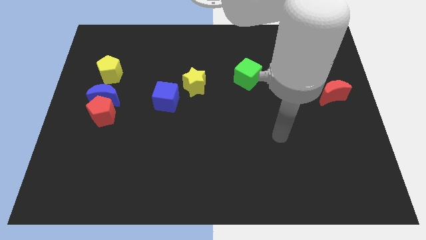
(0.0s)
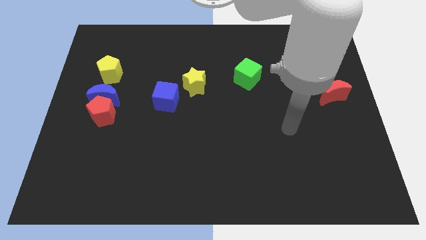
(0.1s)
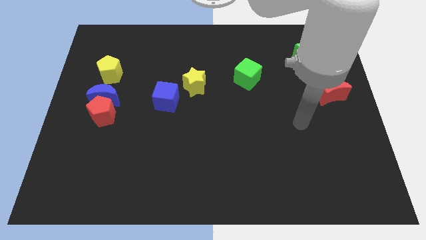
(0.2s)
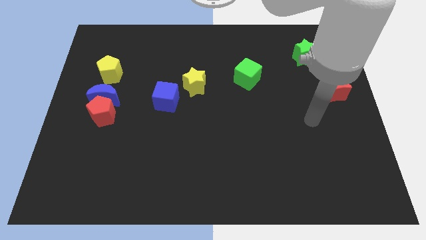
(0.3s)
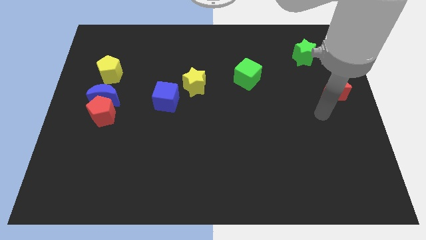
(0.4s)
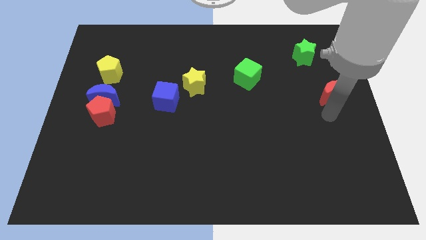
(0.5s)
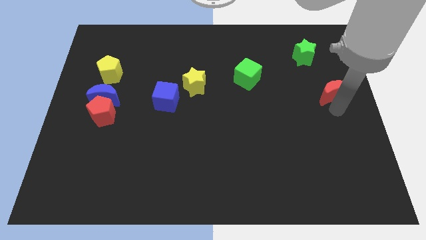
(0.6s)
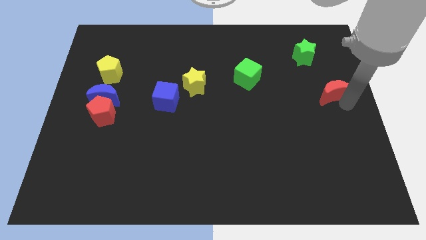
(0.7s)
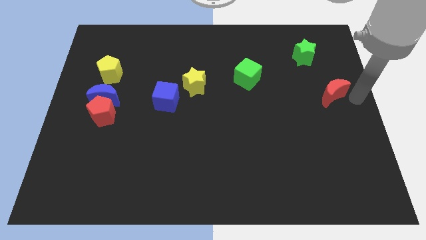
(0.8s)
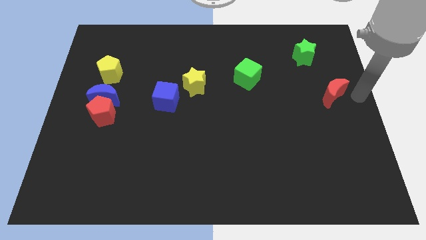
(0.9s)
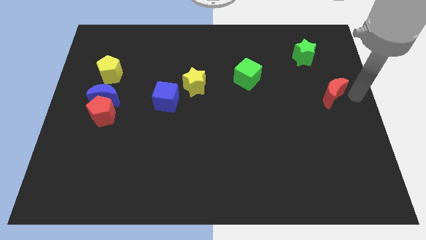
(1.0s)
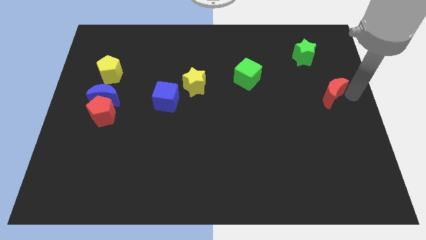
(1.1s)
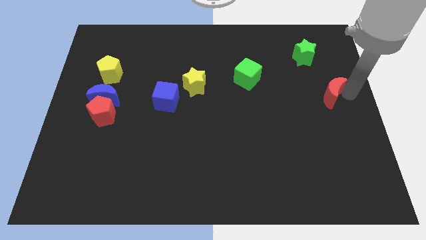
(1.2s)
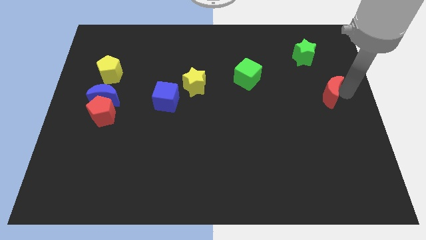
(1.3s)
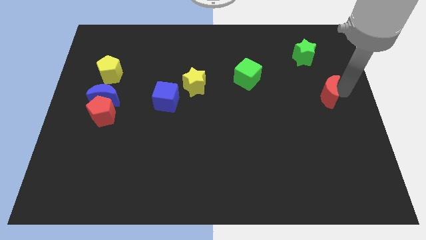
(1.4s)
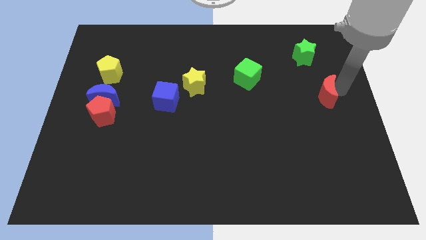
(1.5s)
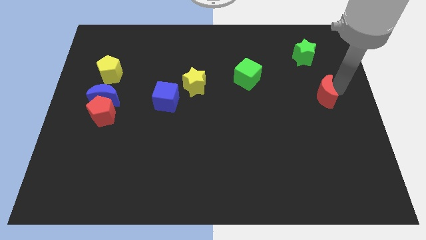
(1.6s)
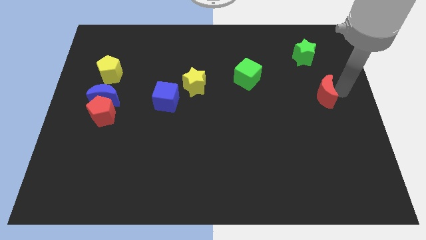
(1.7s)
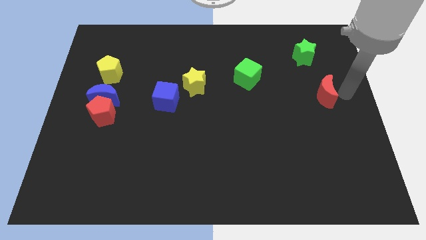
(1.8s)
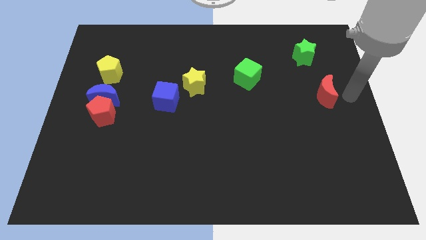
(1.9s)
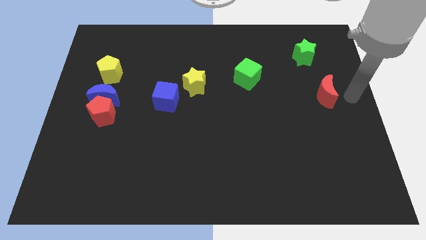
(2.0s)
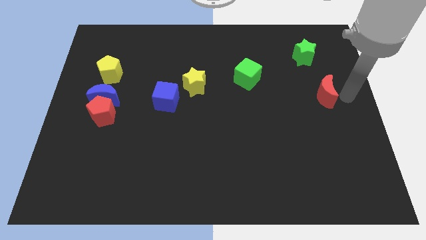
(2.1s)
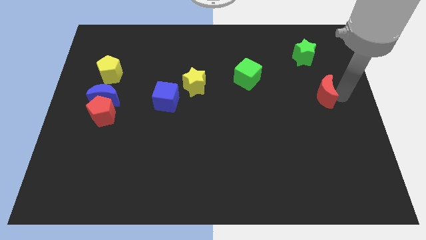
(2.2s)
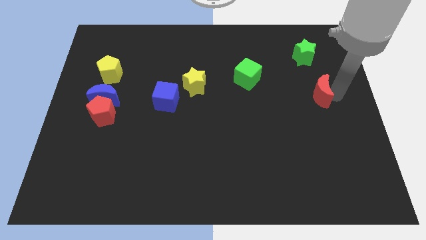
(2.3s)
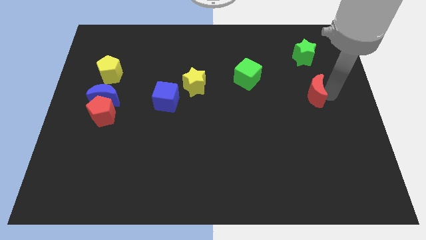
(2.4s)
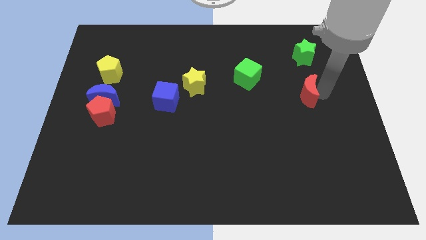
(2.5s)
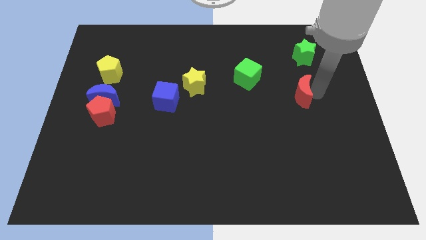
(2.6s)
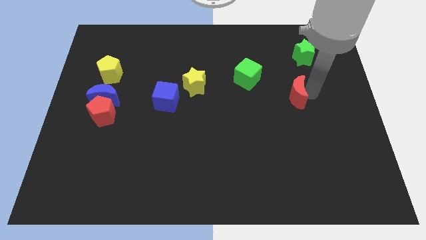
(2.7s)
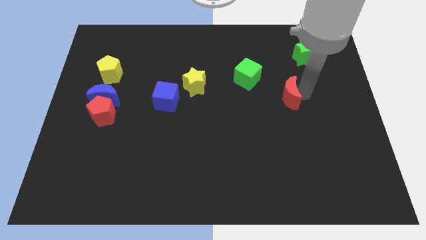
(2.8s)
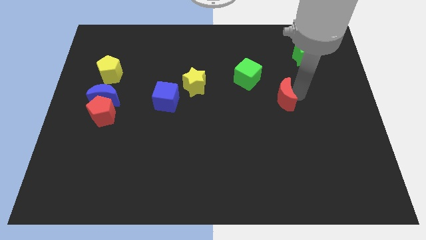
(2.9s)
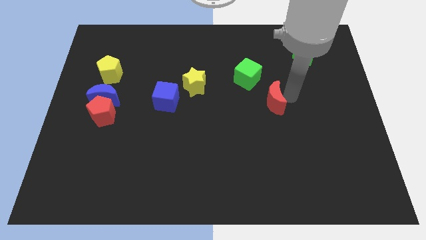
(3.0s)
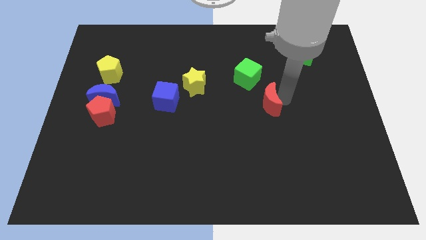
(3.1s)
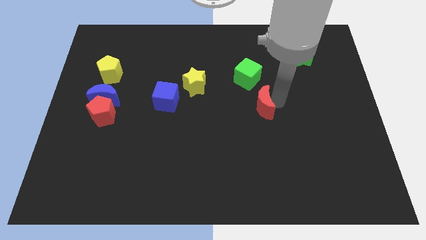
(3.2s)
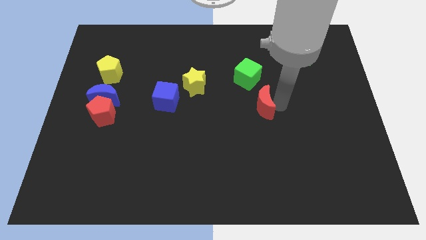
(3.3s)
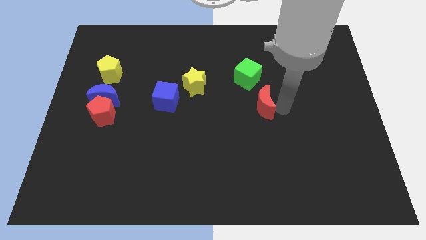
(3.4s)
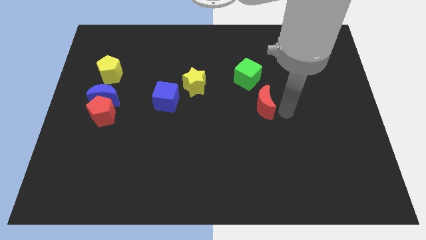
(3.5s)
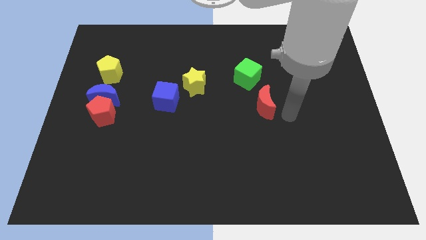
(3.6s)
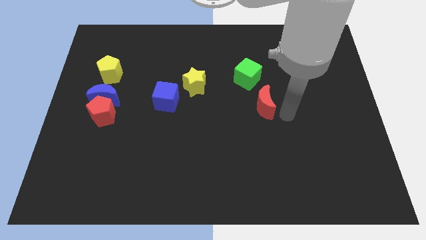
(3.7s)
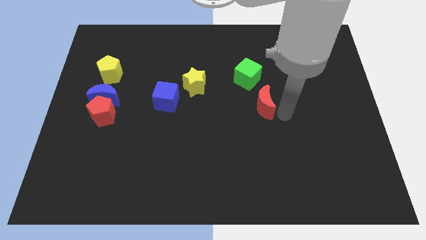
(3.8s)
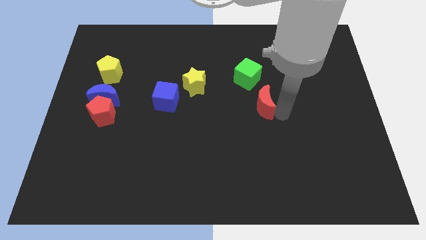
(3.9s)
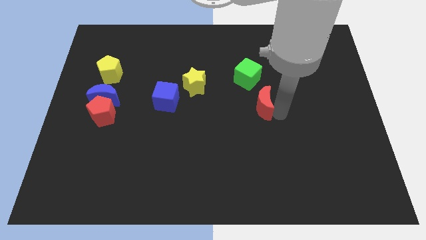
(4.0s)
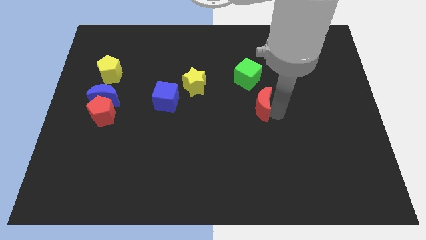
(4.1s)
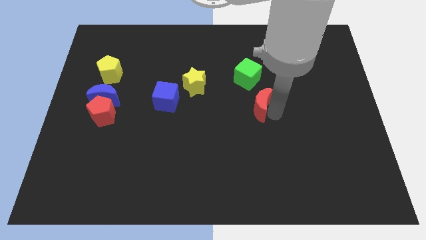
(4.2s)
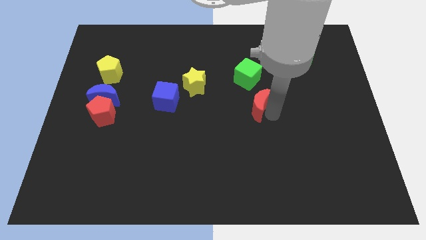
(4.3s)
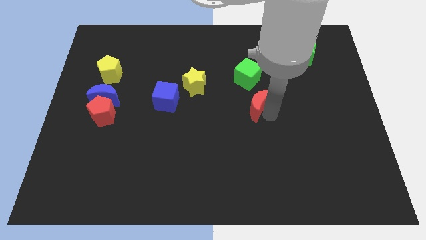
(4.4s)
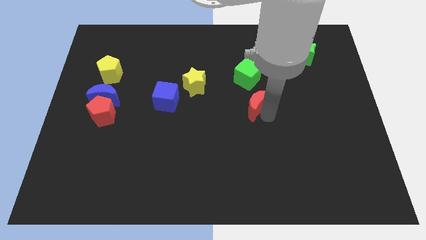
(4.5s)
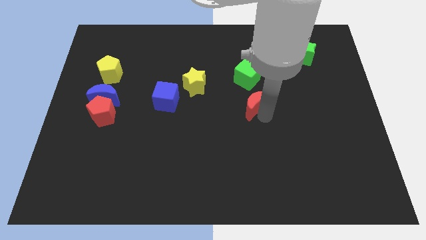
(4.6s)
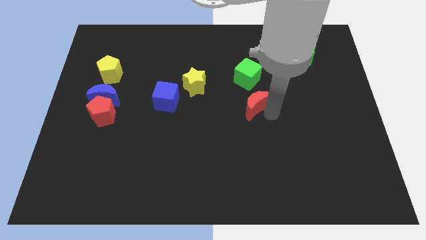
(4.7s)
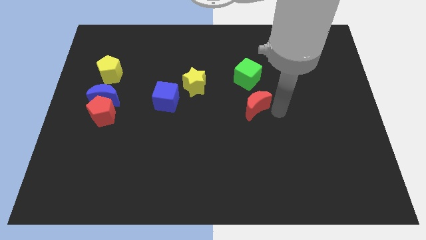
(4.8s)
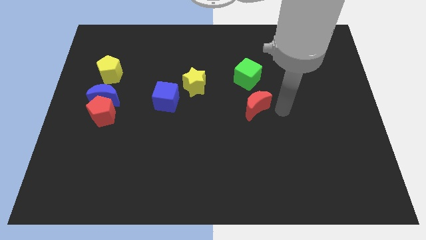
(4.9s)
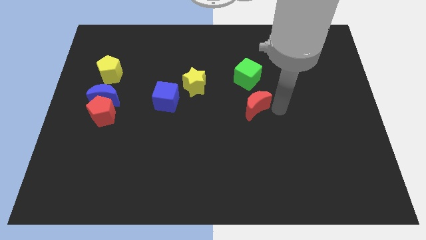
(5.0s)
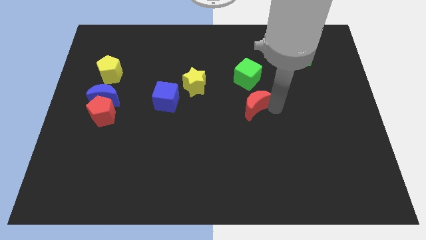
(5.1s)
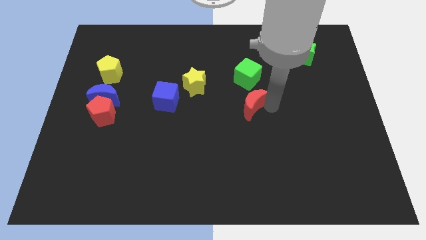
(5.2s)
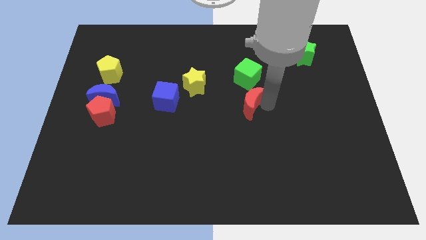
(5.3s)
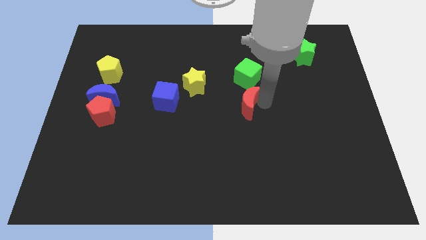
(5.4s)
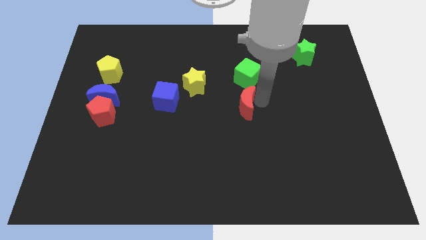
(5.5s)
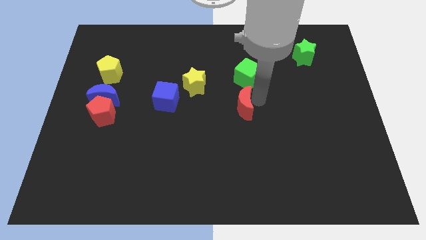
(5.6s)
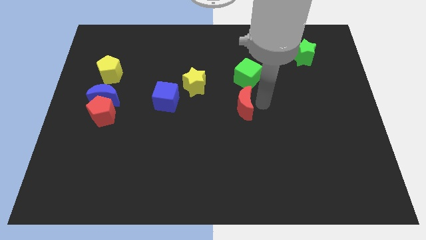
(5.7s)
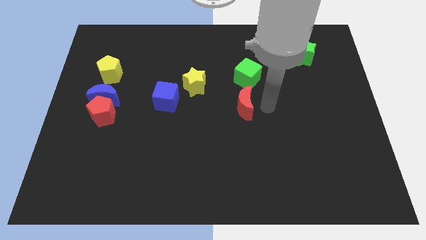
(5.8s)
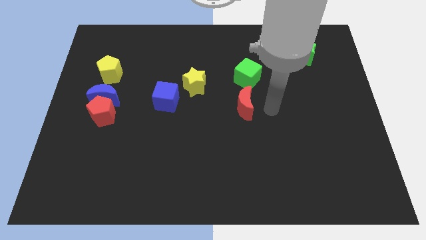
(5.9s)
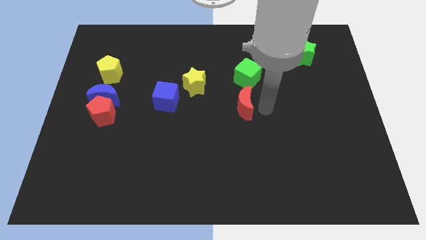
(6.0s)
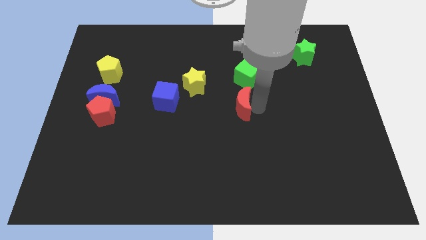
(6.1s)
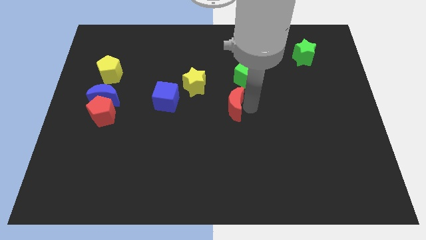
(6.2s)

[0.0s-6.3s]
put the red moon to the bottom right side of the yellow star

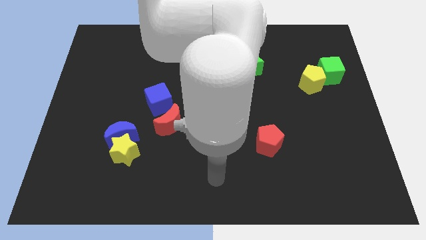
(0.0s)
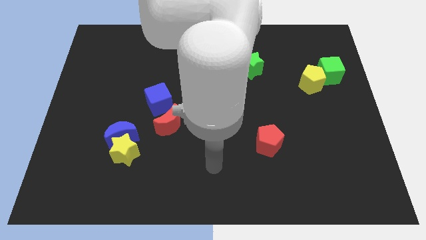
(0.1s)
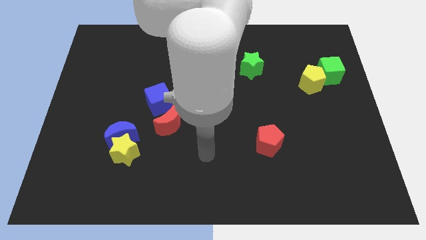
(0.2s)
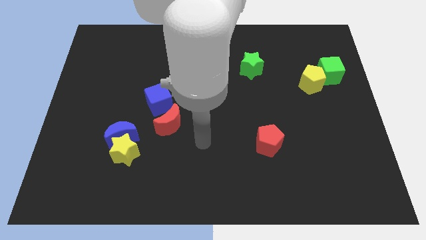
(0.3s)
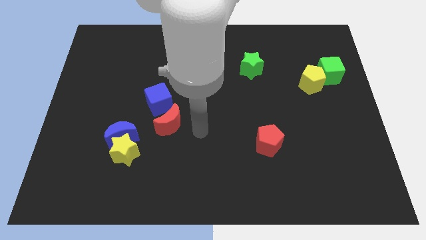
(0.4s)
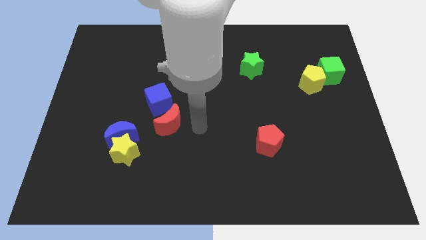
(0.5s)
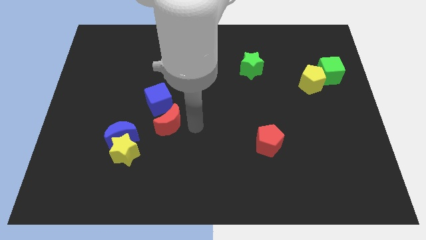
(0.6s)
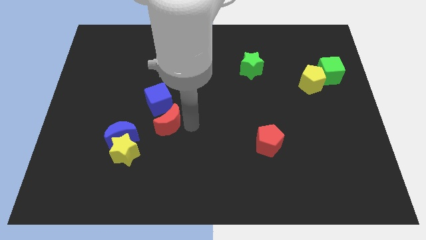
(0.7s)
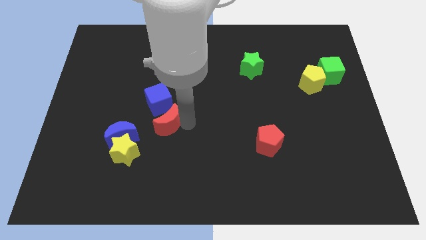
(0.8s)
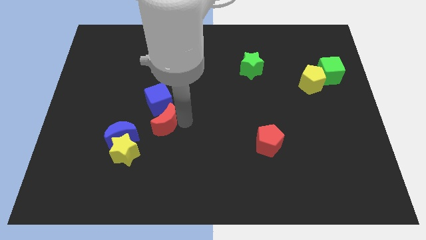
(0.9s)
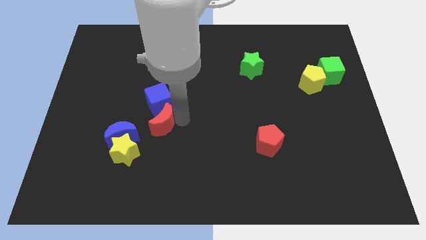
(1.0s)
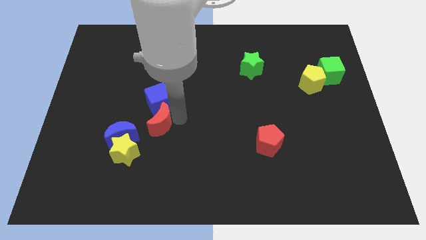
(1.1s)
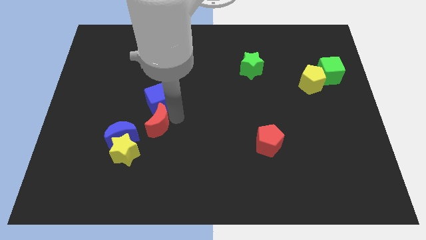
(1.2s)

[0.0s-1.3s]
push the red moon diagonally down and to the left of the blue cube
